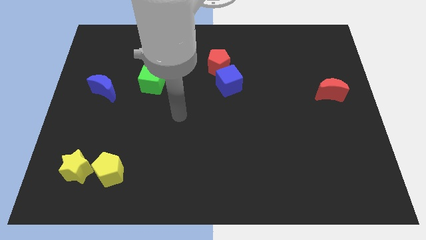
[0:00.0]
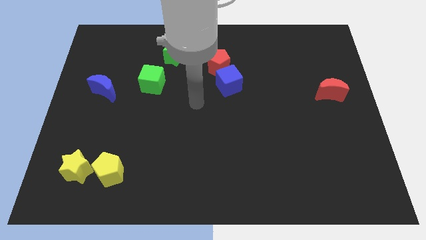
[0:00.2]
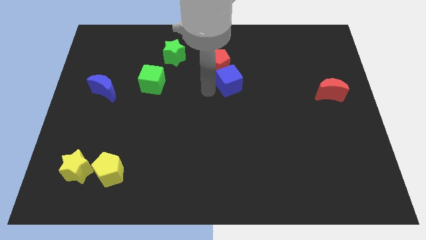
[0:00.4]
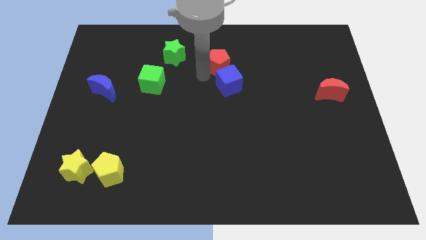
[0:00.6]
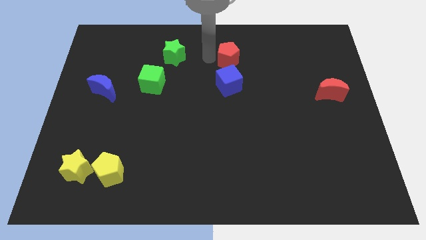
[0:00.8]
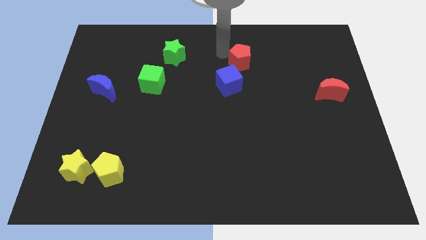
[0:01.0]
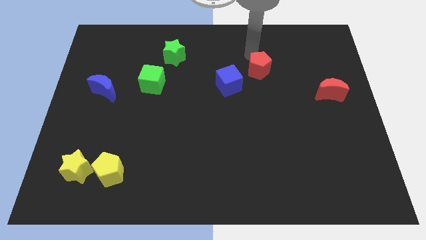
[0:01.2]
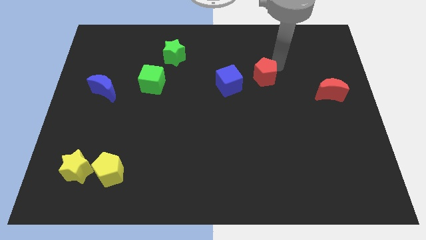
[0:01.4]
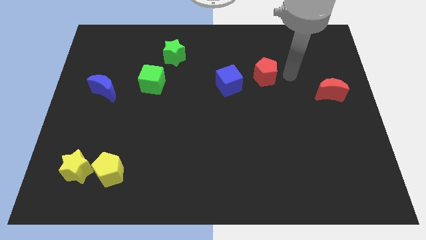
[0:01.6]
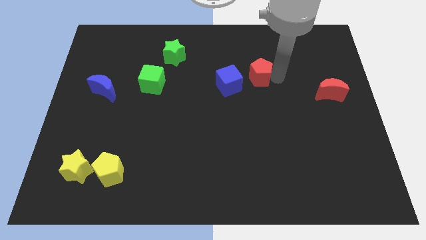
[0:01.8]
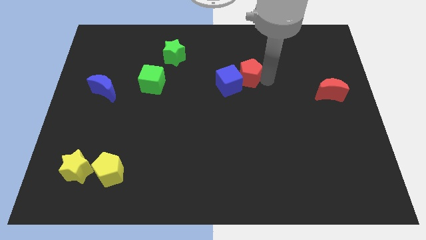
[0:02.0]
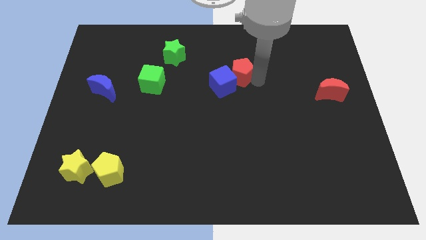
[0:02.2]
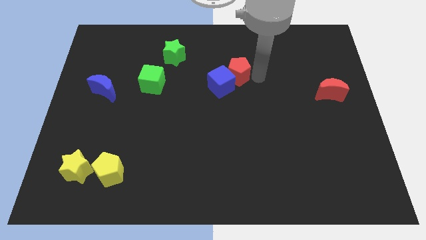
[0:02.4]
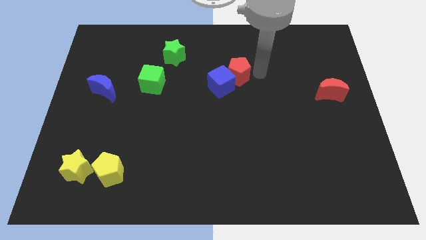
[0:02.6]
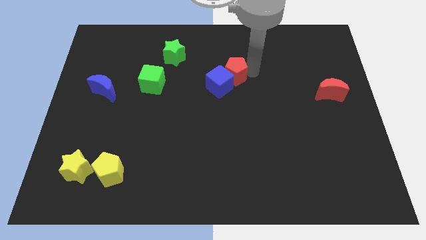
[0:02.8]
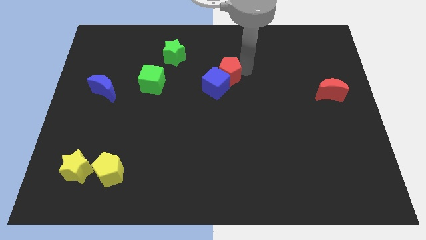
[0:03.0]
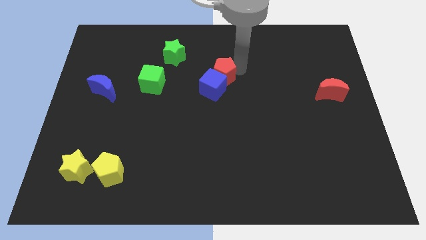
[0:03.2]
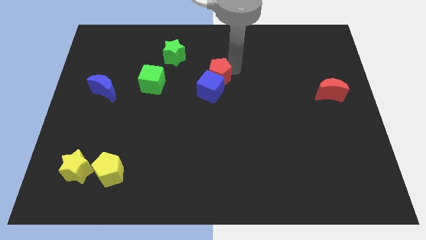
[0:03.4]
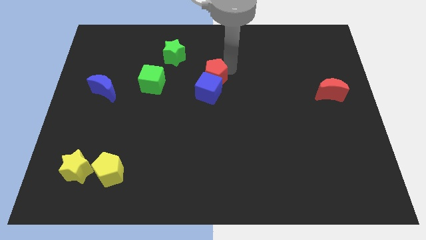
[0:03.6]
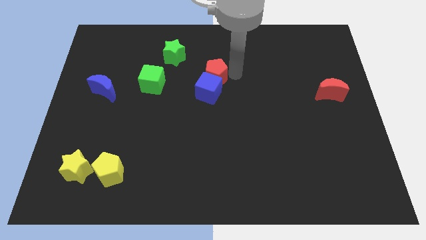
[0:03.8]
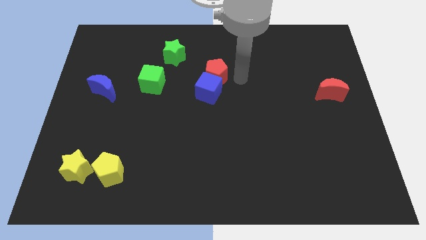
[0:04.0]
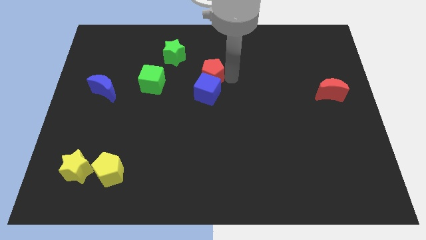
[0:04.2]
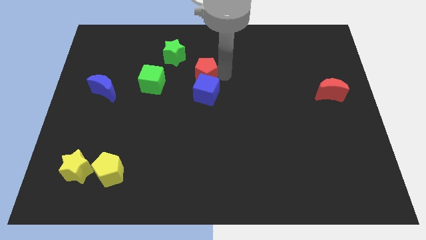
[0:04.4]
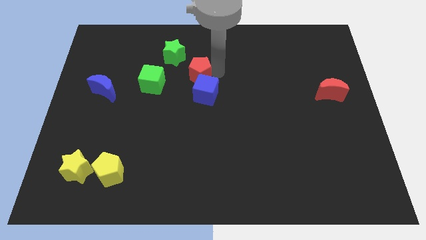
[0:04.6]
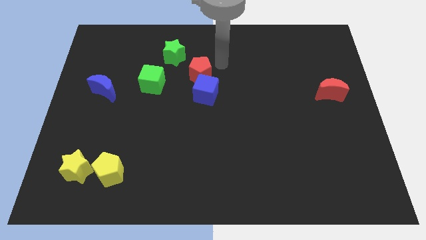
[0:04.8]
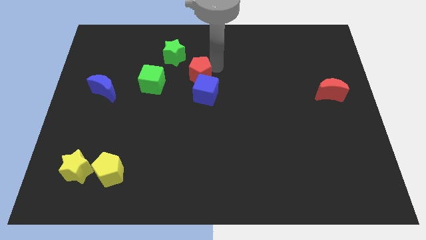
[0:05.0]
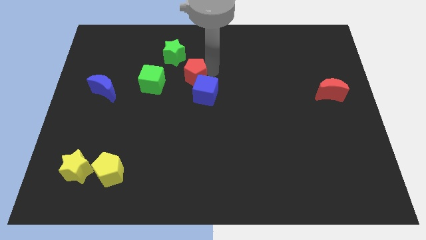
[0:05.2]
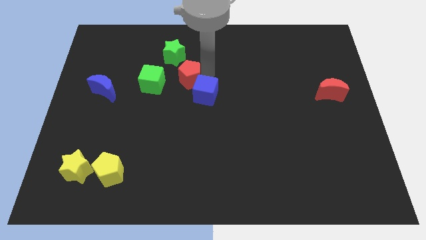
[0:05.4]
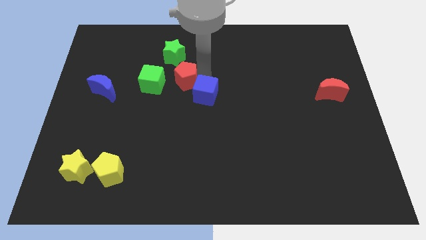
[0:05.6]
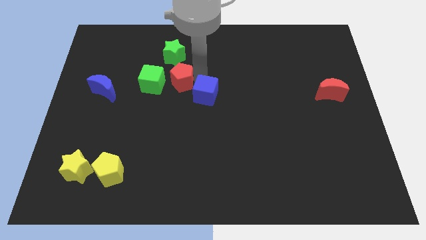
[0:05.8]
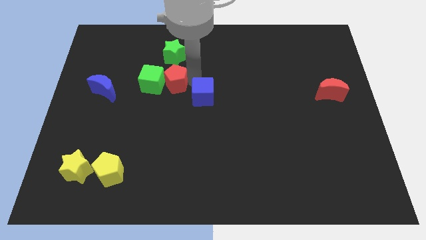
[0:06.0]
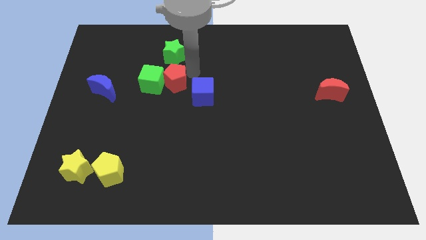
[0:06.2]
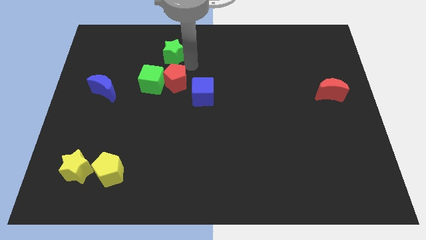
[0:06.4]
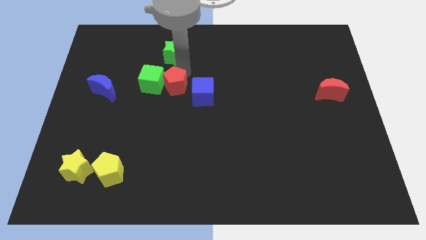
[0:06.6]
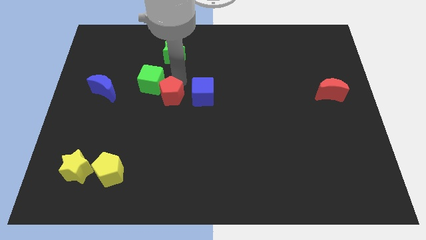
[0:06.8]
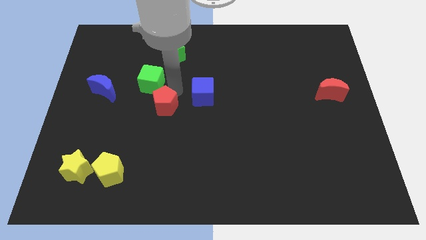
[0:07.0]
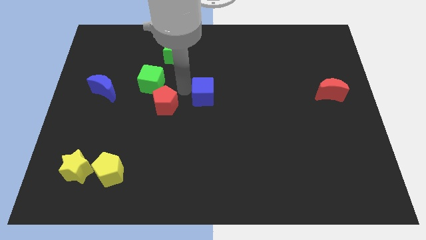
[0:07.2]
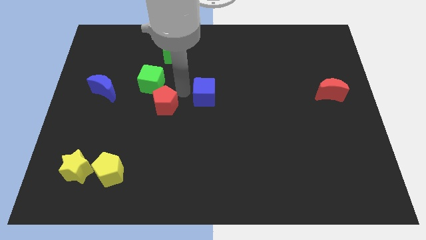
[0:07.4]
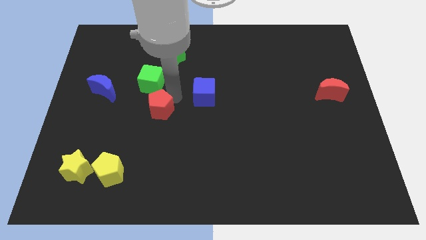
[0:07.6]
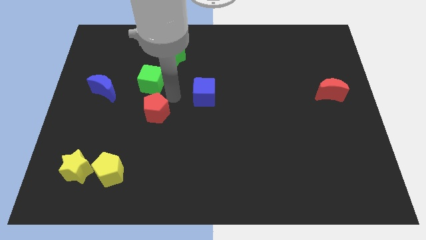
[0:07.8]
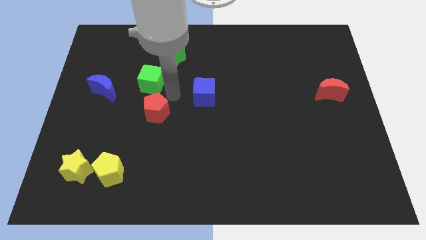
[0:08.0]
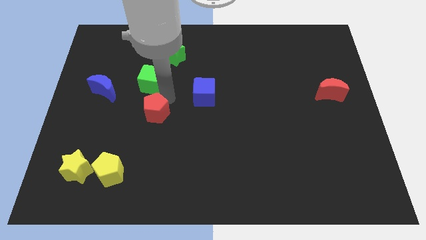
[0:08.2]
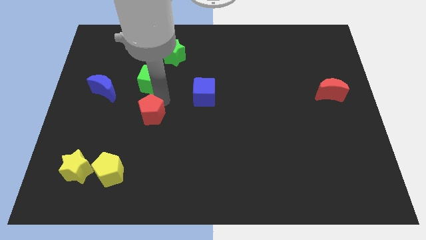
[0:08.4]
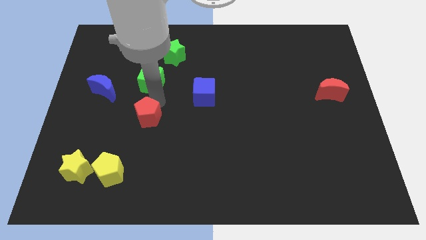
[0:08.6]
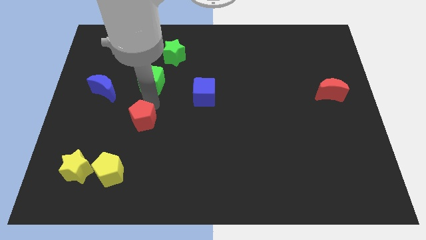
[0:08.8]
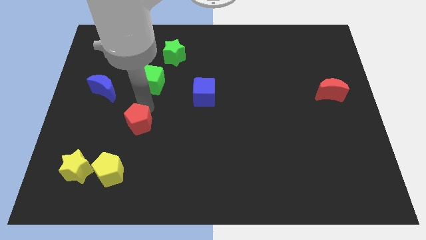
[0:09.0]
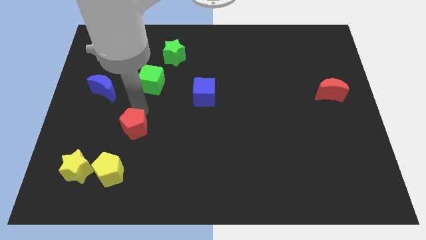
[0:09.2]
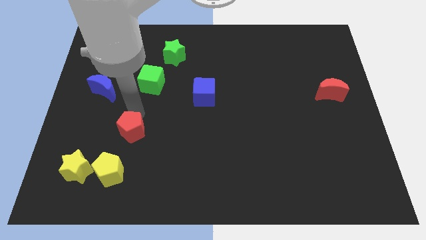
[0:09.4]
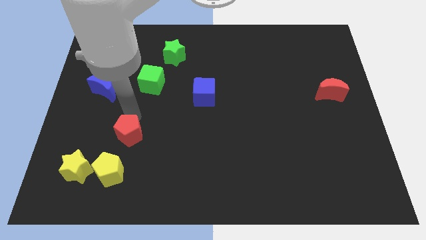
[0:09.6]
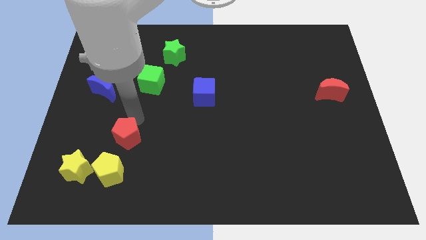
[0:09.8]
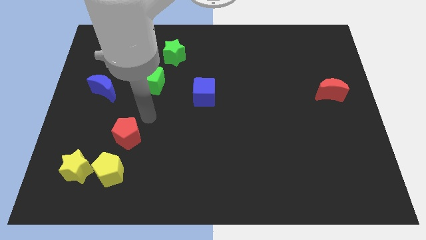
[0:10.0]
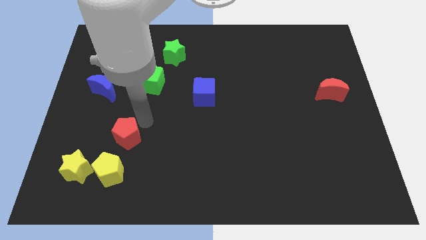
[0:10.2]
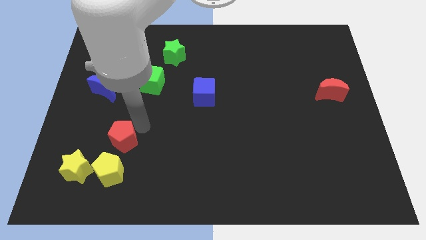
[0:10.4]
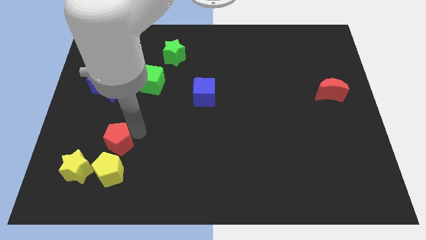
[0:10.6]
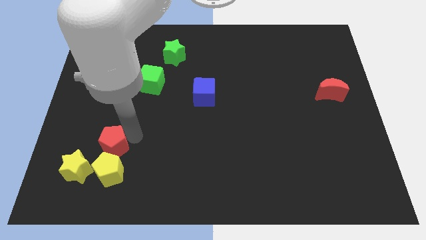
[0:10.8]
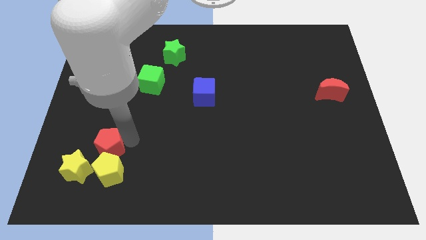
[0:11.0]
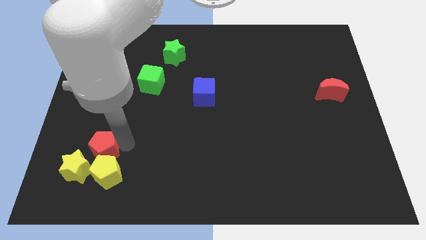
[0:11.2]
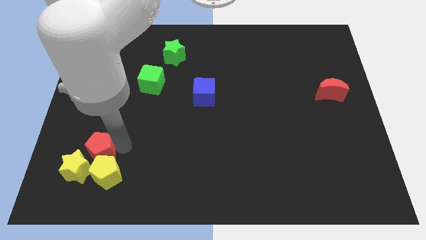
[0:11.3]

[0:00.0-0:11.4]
move the red pentagon towards the yellow star

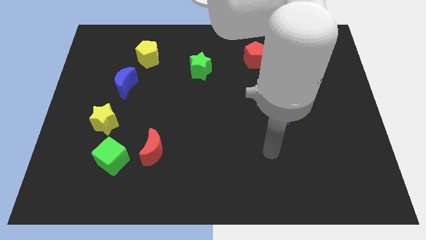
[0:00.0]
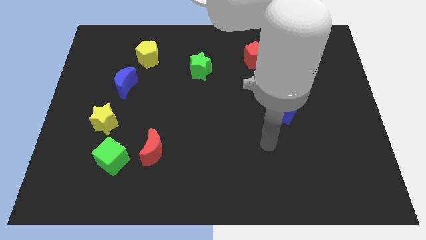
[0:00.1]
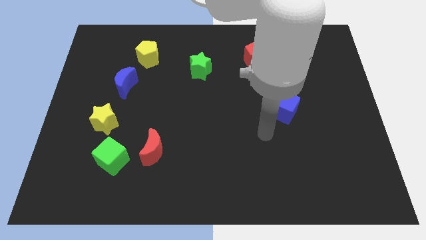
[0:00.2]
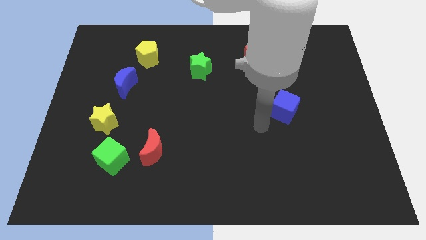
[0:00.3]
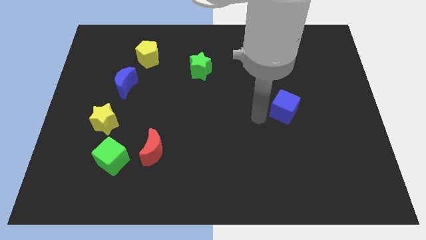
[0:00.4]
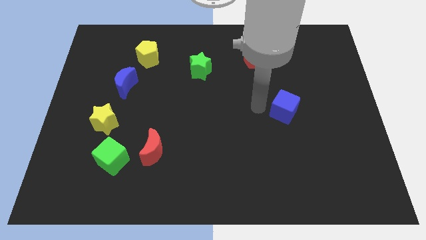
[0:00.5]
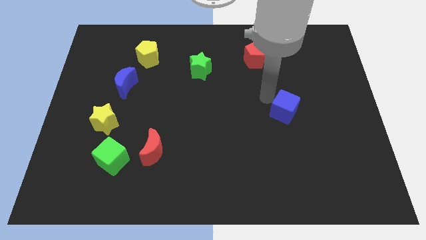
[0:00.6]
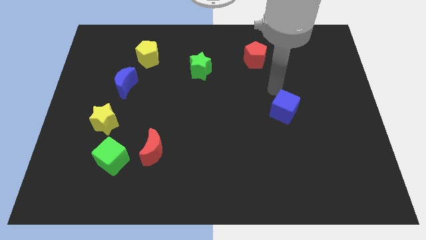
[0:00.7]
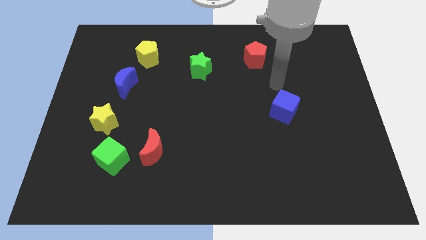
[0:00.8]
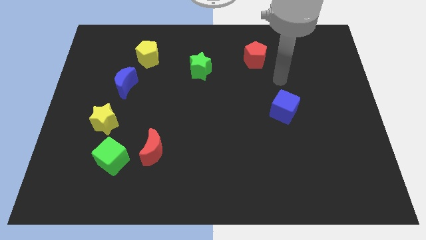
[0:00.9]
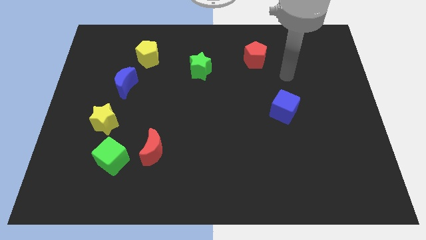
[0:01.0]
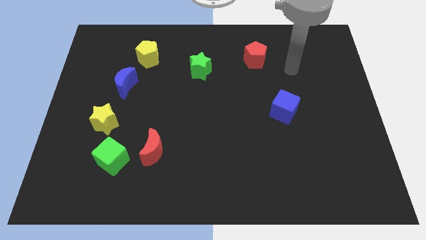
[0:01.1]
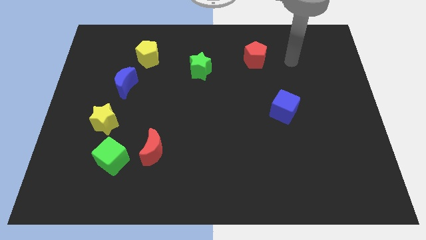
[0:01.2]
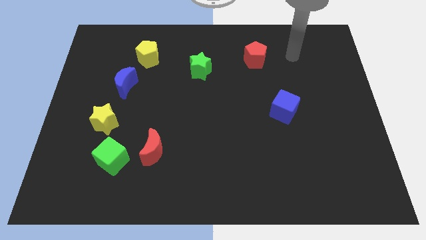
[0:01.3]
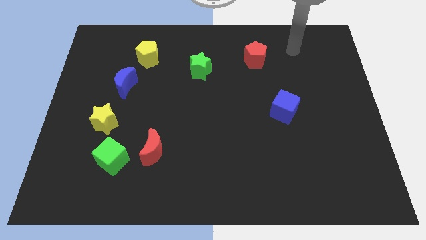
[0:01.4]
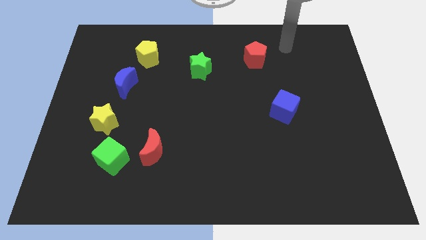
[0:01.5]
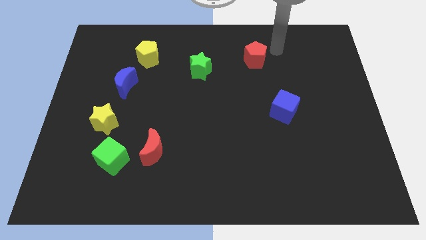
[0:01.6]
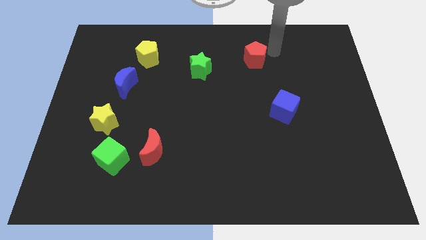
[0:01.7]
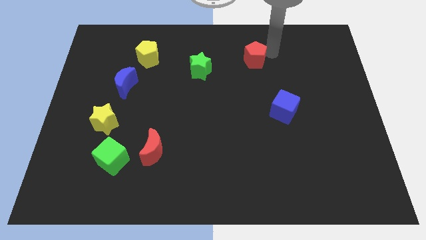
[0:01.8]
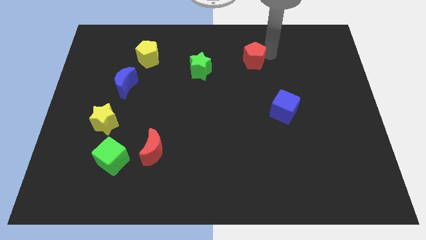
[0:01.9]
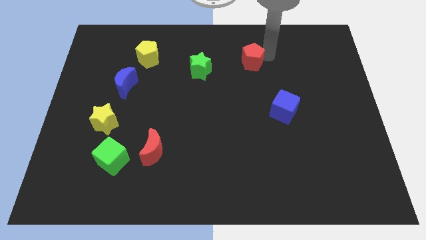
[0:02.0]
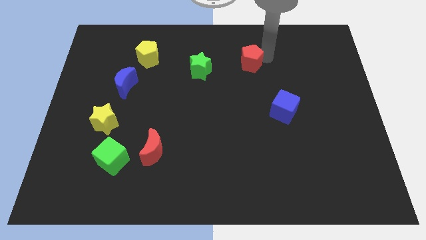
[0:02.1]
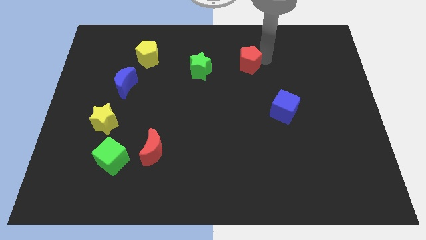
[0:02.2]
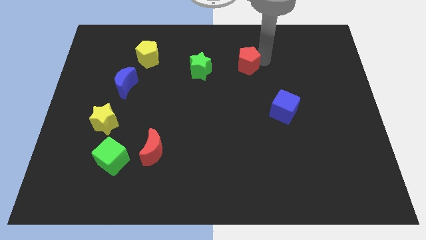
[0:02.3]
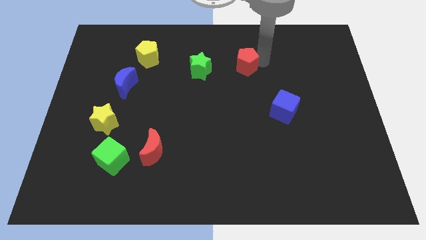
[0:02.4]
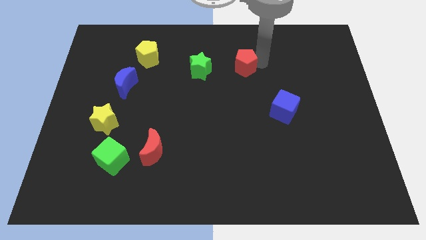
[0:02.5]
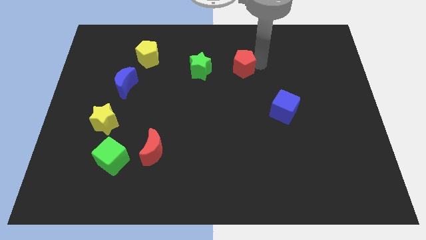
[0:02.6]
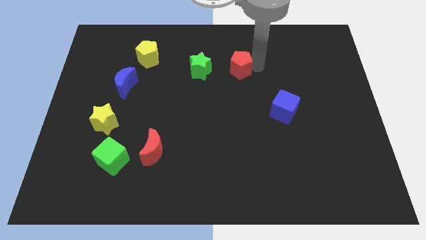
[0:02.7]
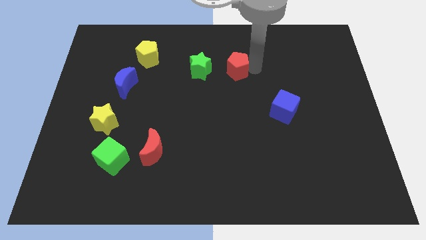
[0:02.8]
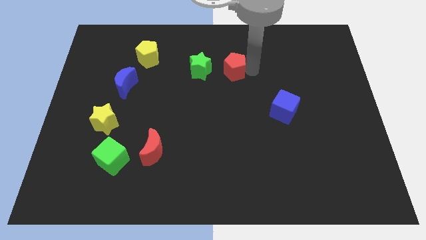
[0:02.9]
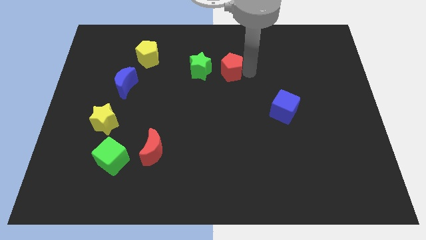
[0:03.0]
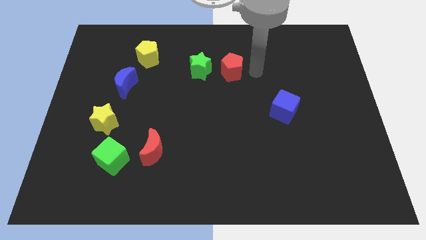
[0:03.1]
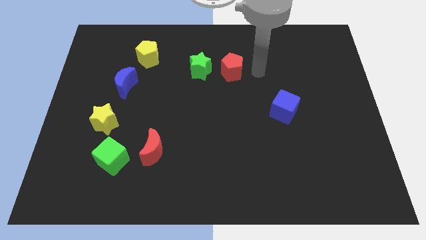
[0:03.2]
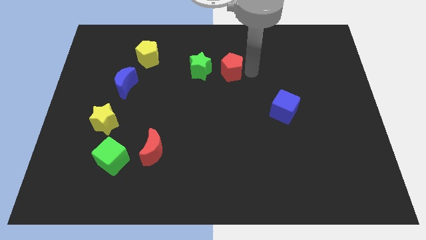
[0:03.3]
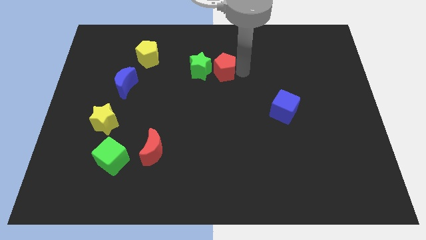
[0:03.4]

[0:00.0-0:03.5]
slide the red pentagon next to the green star
